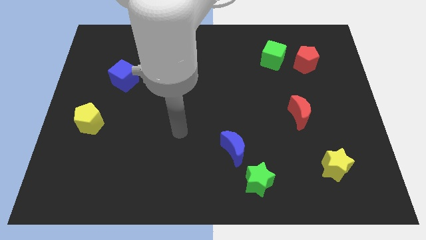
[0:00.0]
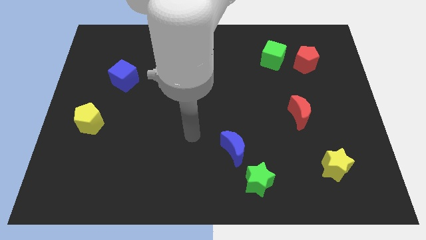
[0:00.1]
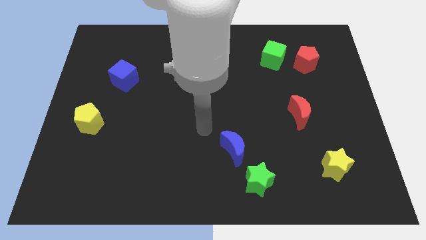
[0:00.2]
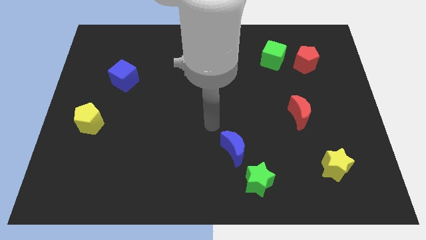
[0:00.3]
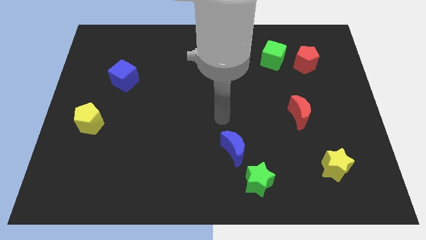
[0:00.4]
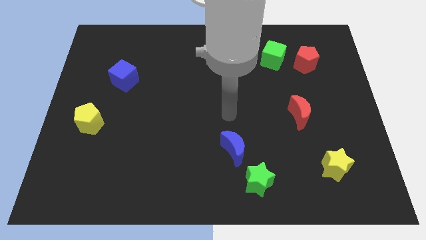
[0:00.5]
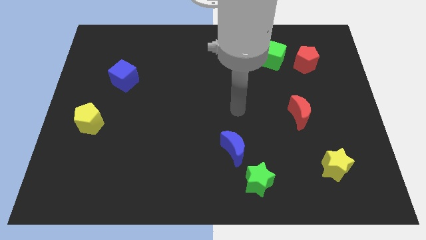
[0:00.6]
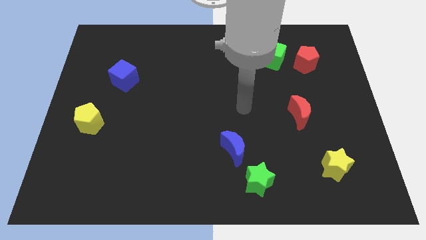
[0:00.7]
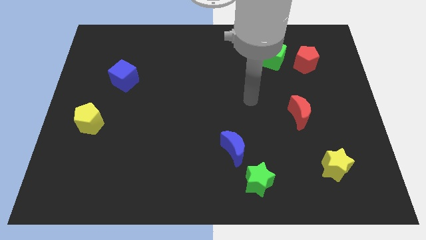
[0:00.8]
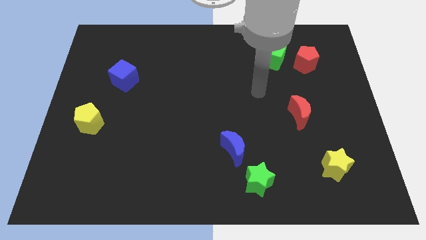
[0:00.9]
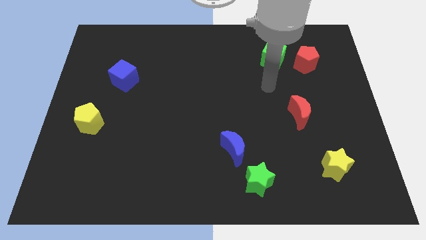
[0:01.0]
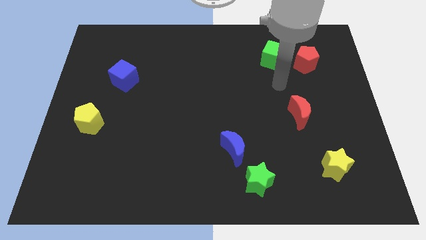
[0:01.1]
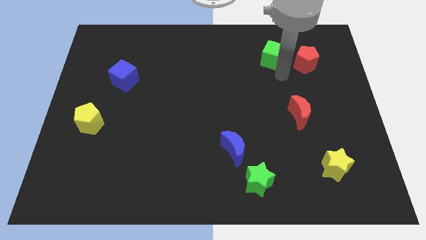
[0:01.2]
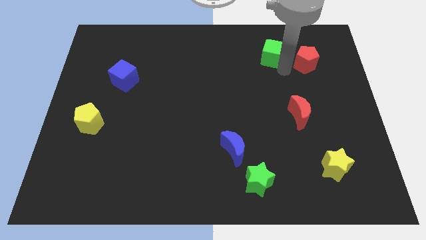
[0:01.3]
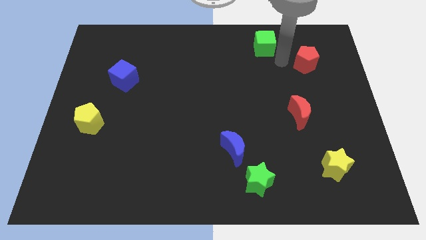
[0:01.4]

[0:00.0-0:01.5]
pull the red pentagon apart from the green cube

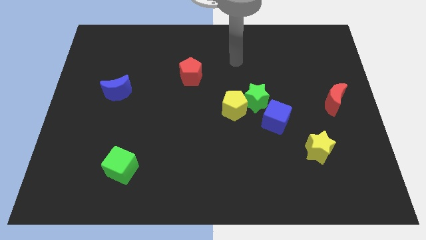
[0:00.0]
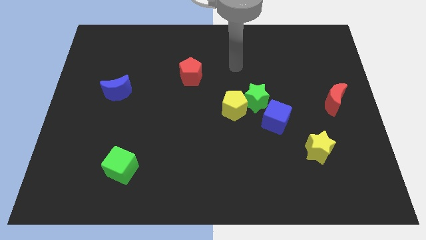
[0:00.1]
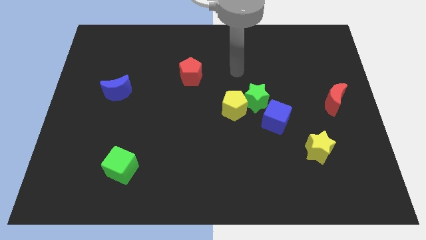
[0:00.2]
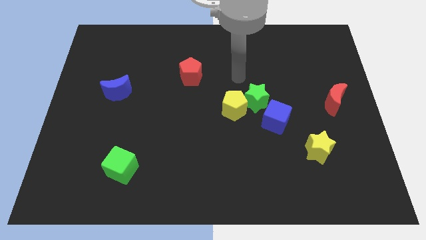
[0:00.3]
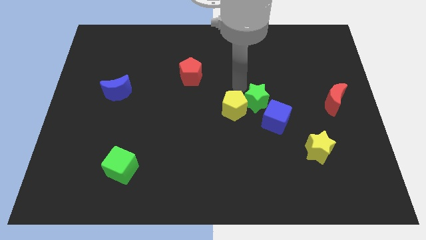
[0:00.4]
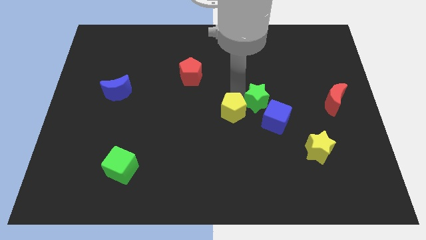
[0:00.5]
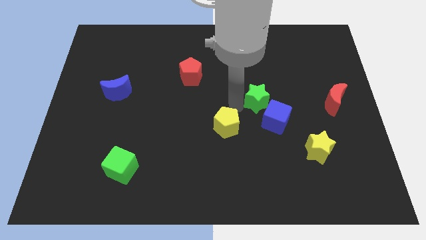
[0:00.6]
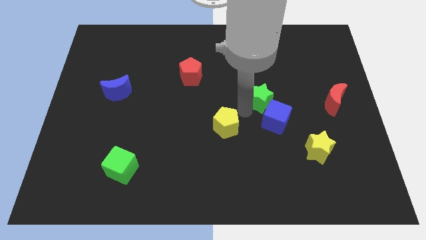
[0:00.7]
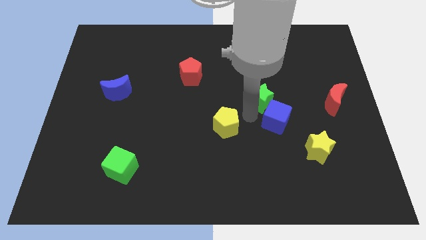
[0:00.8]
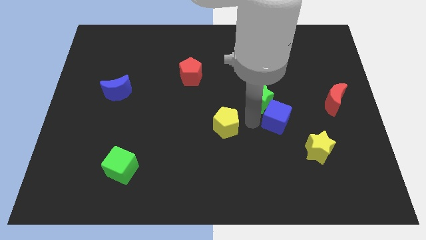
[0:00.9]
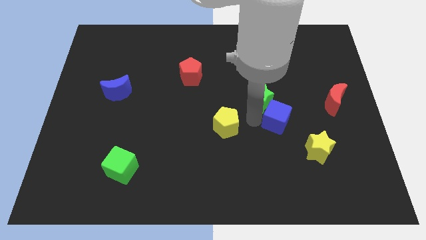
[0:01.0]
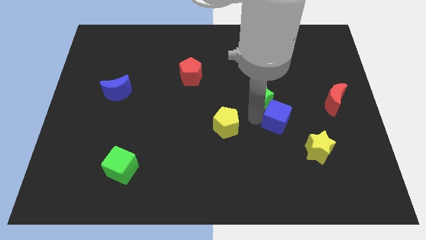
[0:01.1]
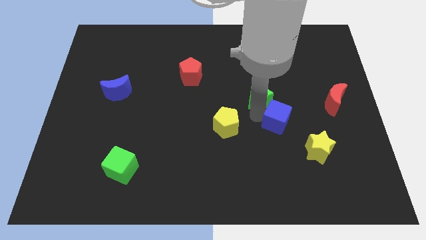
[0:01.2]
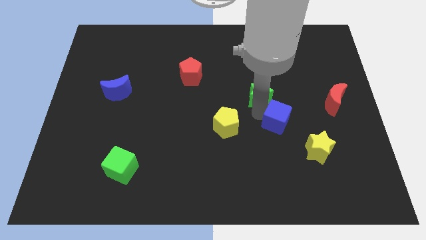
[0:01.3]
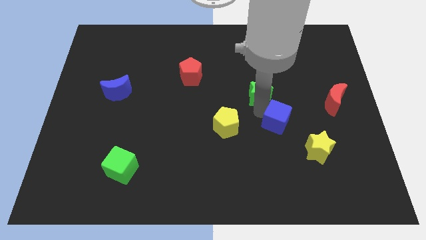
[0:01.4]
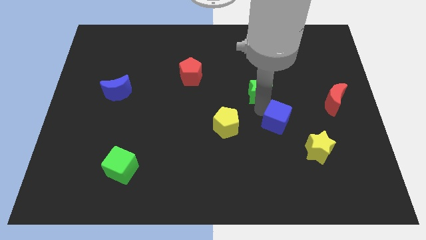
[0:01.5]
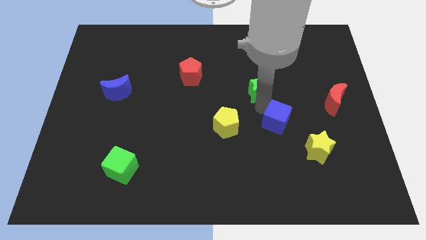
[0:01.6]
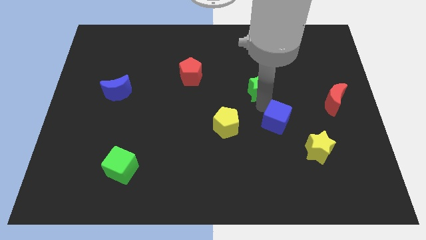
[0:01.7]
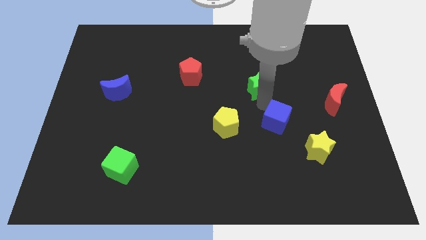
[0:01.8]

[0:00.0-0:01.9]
separate the green star from the yellow pentagon and blue cube

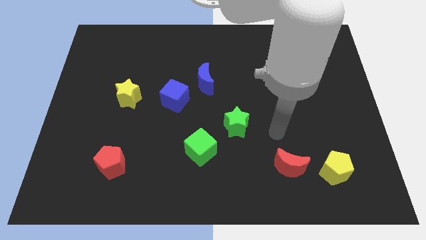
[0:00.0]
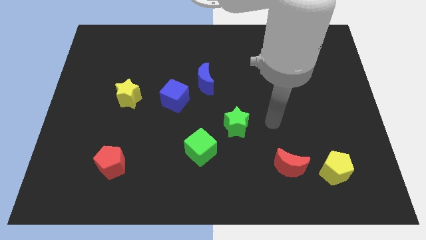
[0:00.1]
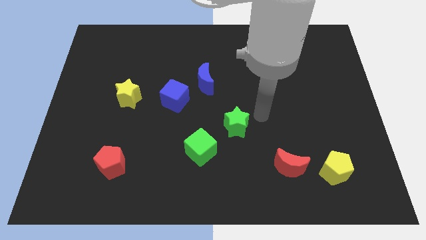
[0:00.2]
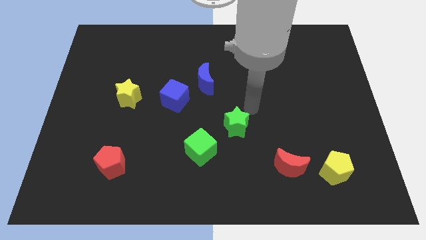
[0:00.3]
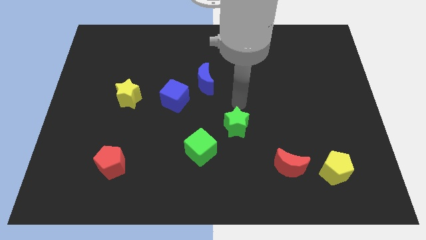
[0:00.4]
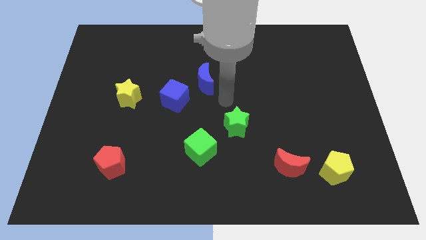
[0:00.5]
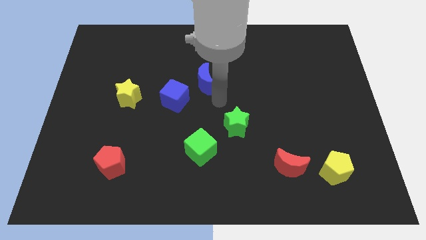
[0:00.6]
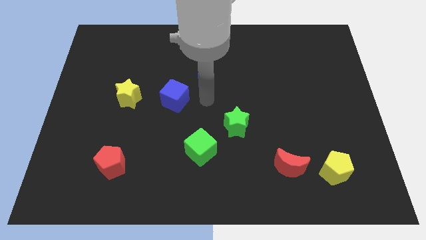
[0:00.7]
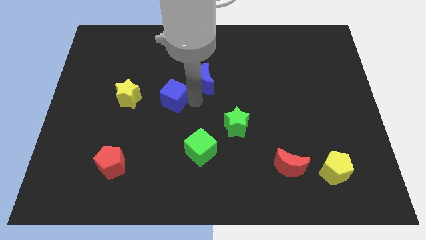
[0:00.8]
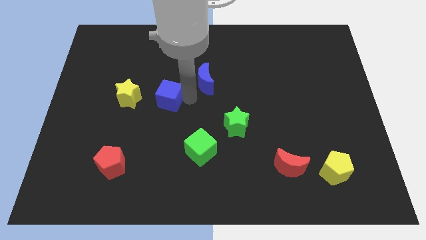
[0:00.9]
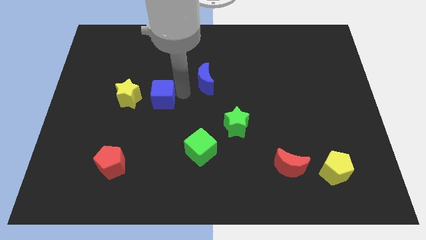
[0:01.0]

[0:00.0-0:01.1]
move the blue moon away from the blue cube

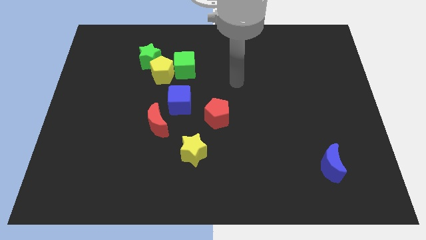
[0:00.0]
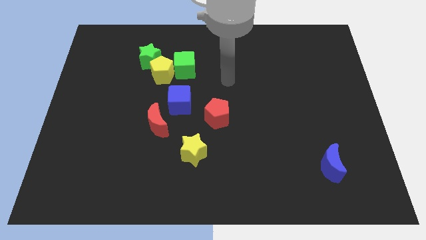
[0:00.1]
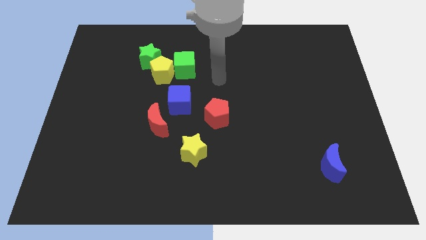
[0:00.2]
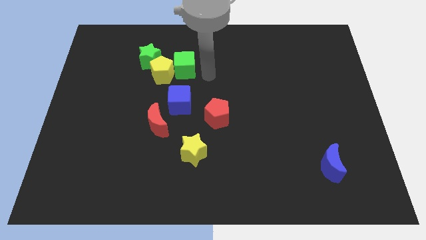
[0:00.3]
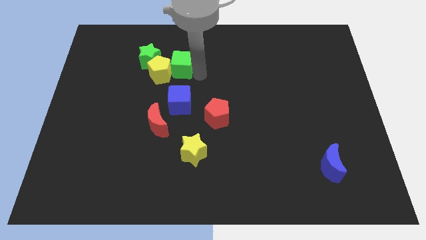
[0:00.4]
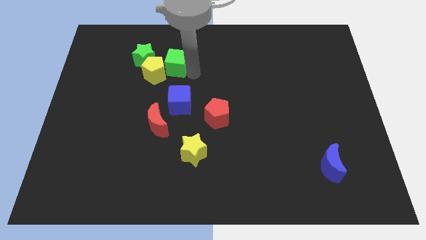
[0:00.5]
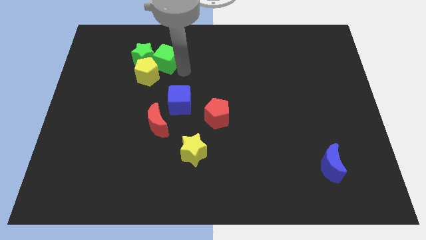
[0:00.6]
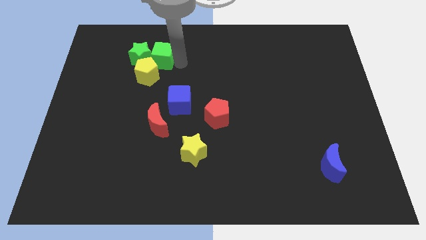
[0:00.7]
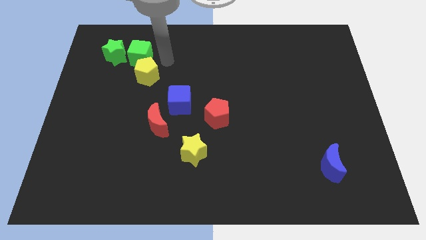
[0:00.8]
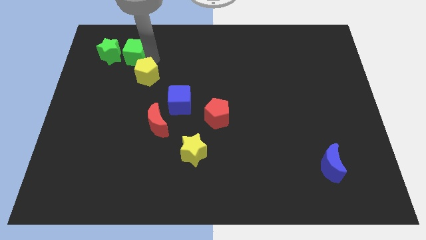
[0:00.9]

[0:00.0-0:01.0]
pull the yellow pentagon apart from the green star and green cube

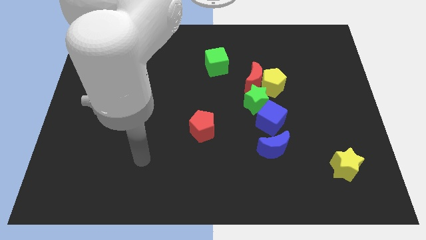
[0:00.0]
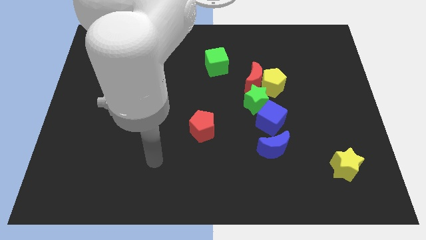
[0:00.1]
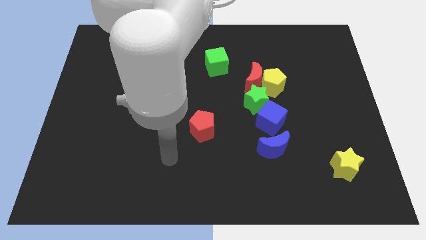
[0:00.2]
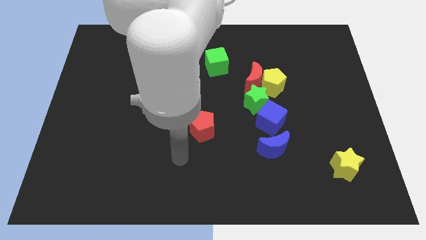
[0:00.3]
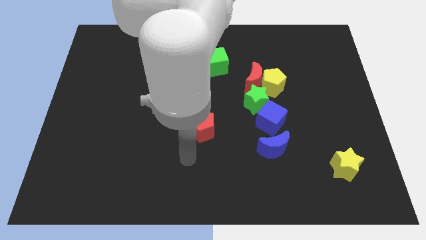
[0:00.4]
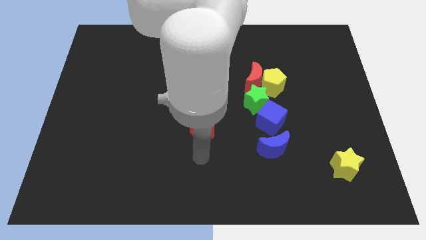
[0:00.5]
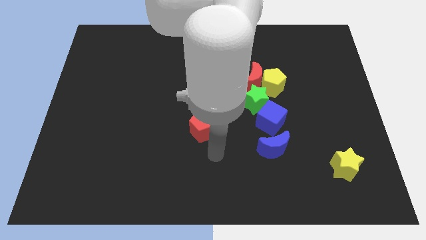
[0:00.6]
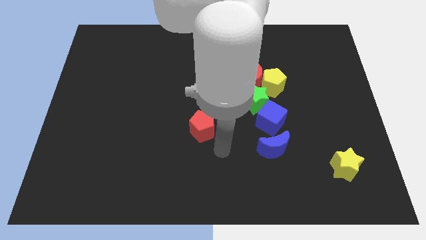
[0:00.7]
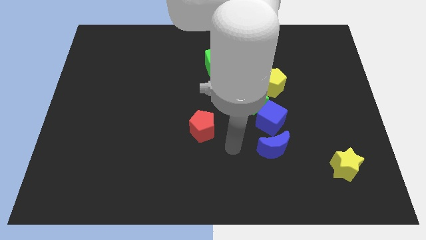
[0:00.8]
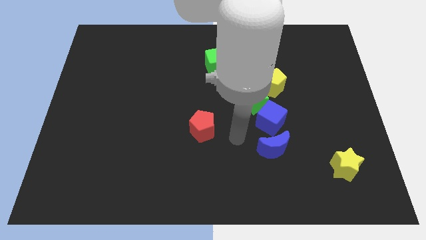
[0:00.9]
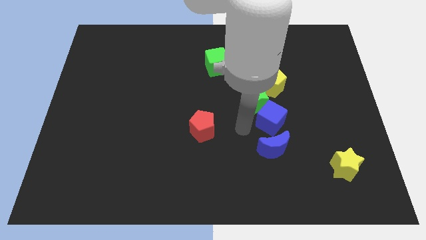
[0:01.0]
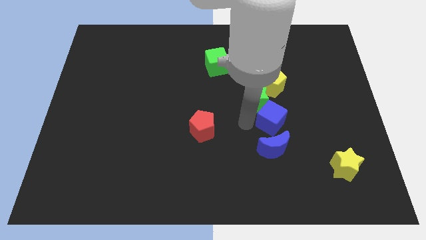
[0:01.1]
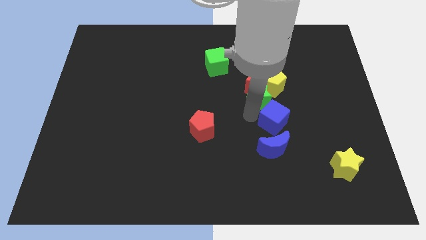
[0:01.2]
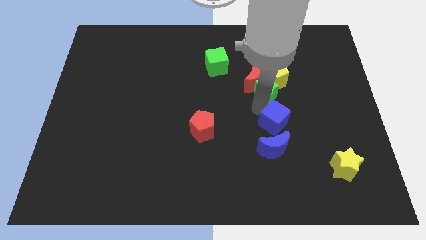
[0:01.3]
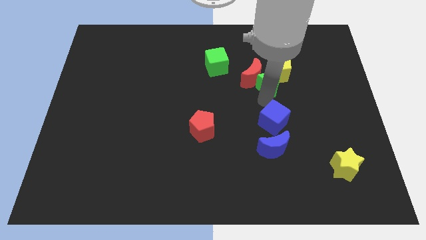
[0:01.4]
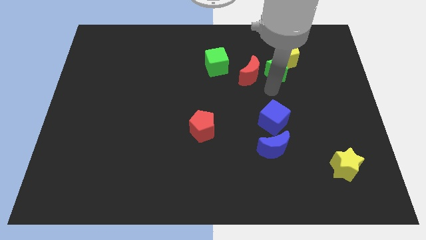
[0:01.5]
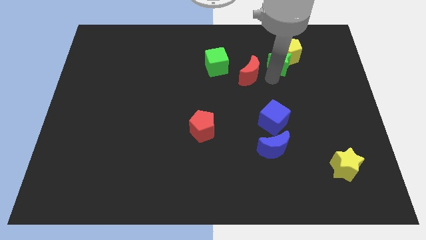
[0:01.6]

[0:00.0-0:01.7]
move the red moon away from the yellow pentagon and green star

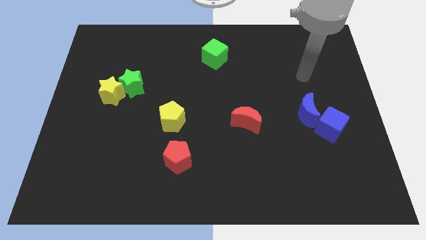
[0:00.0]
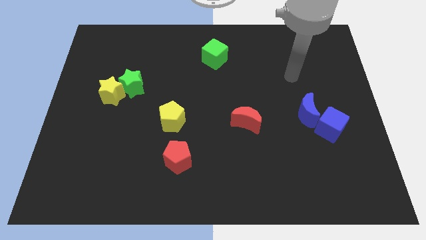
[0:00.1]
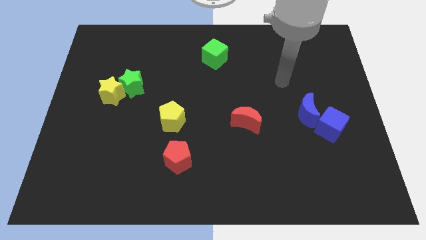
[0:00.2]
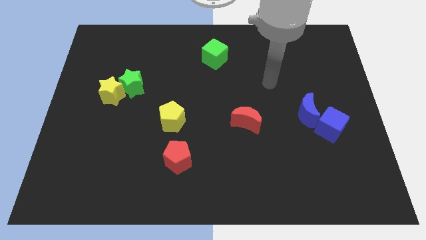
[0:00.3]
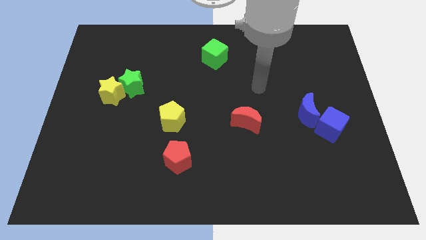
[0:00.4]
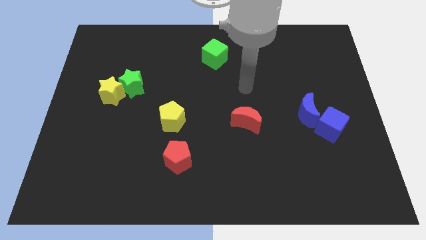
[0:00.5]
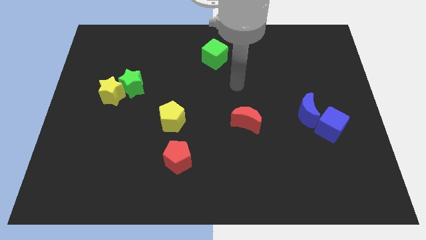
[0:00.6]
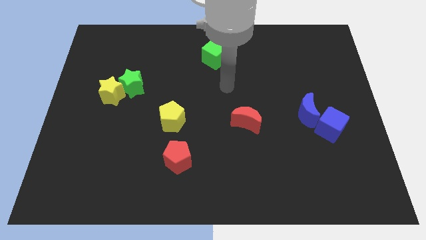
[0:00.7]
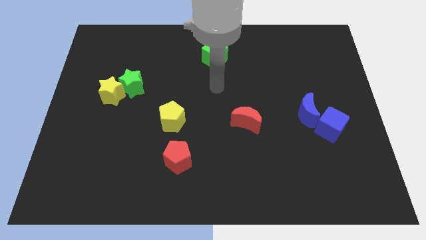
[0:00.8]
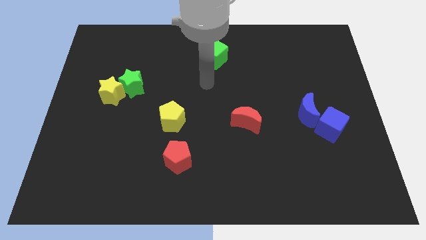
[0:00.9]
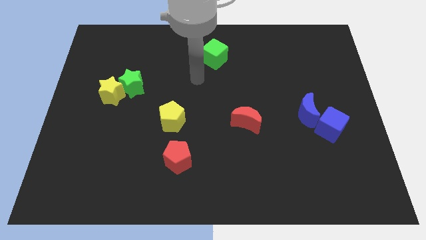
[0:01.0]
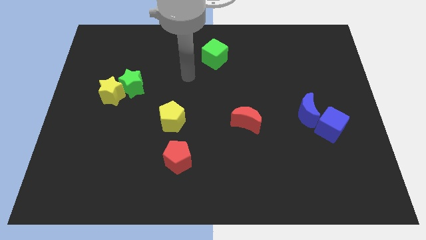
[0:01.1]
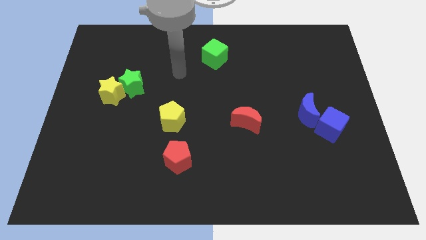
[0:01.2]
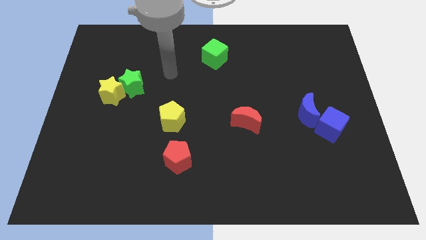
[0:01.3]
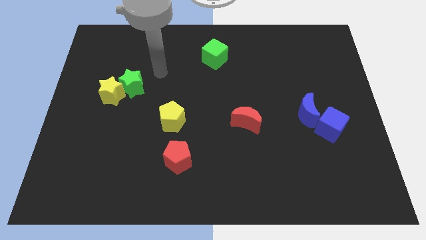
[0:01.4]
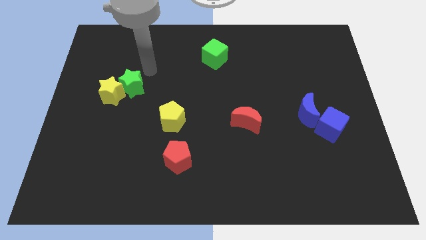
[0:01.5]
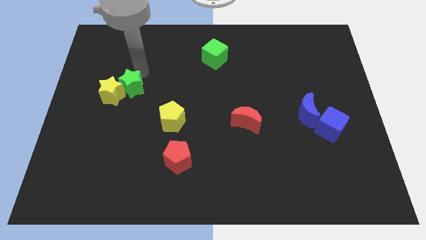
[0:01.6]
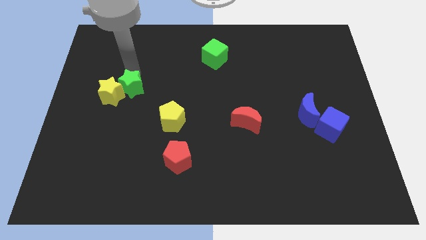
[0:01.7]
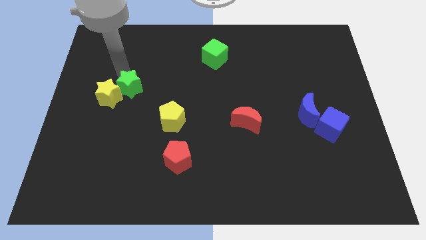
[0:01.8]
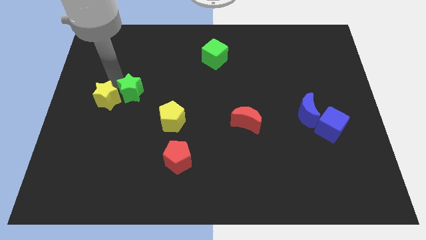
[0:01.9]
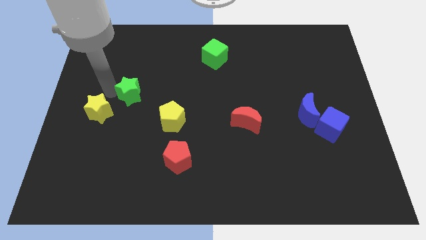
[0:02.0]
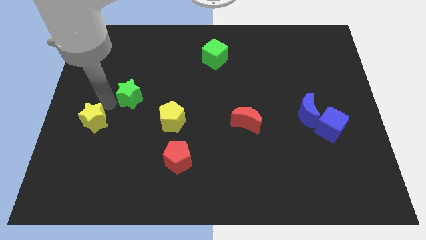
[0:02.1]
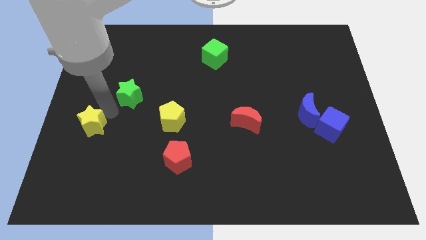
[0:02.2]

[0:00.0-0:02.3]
separate the green star from the yellow star

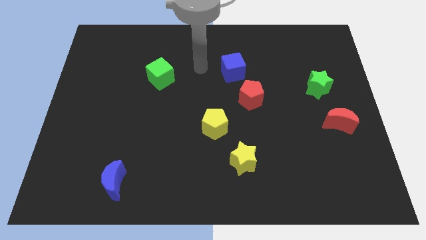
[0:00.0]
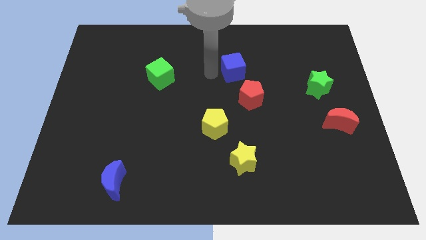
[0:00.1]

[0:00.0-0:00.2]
separate the red pentagon from the blue cube
